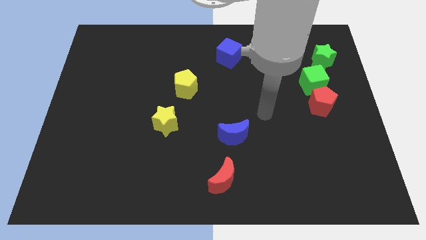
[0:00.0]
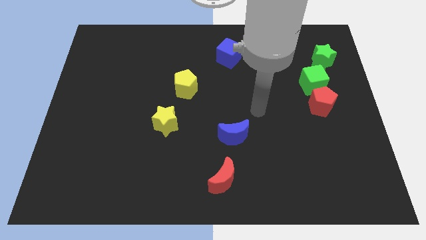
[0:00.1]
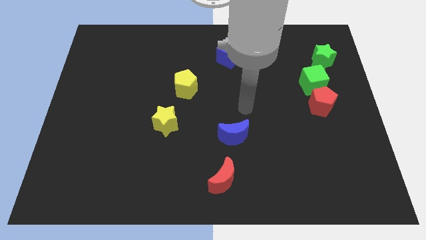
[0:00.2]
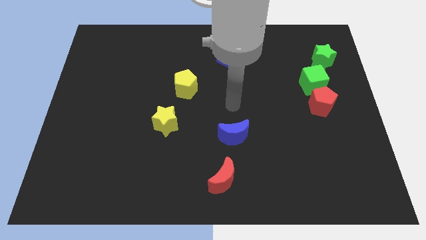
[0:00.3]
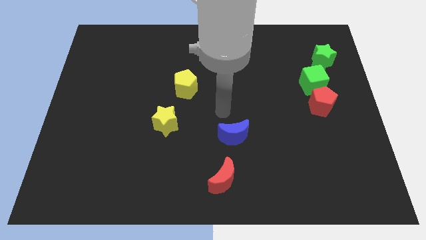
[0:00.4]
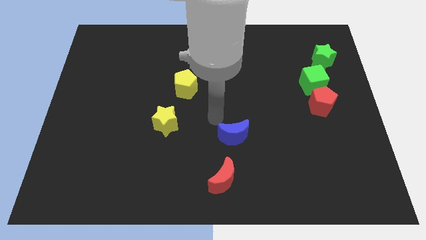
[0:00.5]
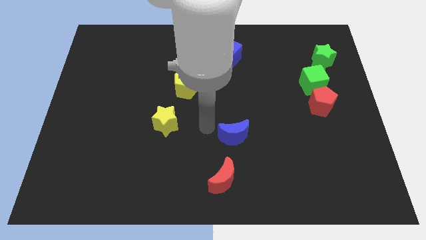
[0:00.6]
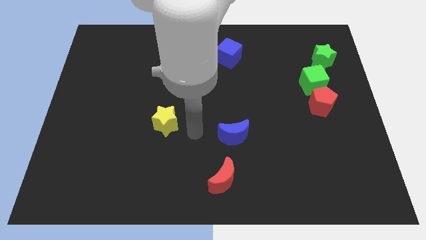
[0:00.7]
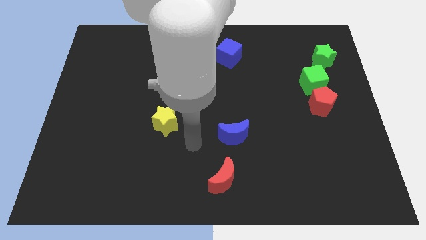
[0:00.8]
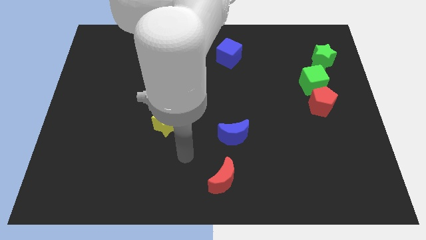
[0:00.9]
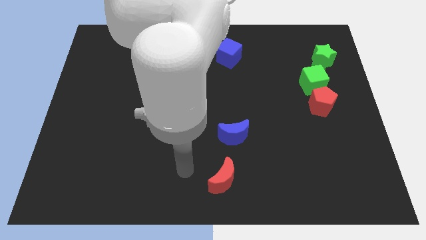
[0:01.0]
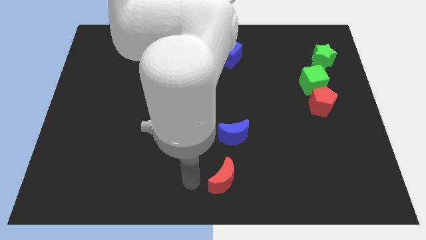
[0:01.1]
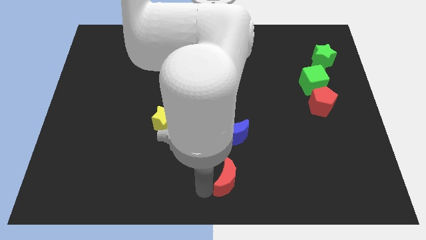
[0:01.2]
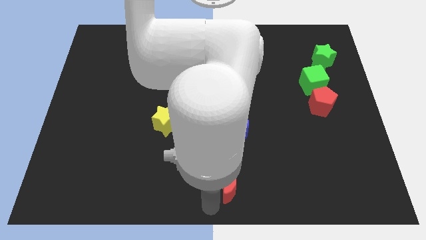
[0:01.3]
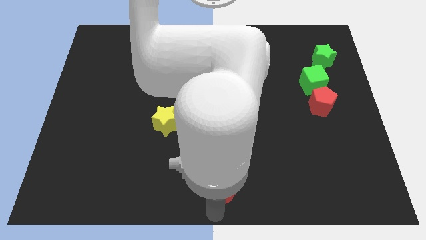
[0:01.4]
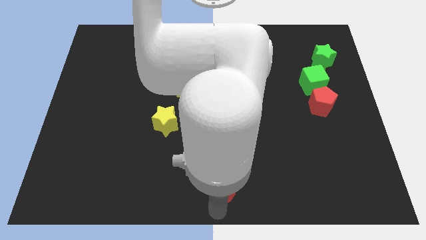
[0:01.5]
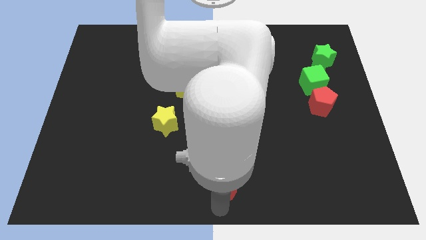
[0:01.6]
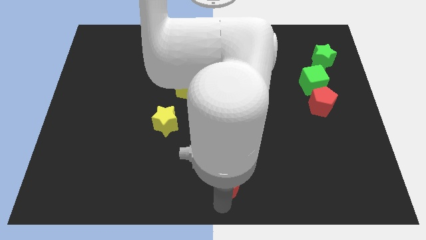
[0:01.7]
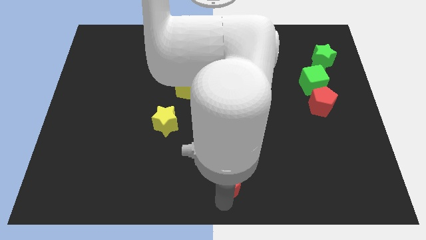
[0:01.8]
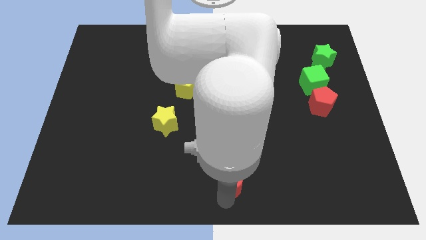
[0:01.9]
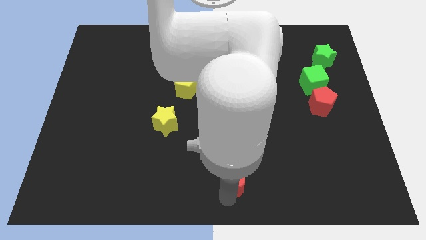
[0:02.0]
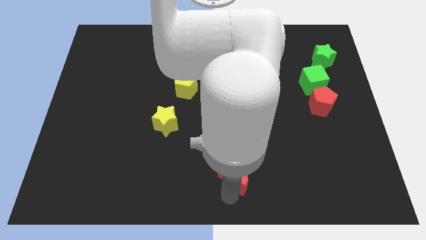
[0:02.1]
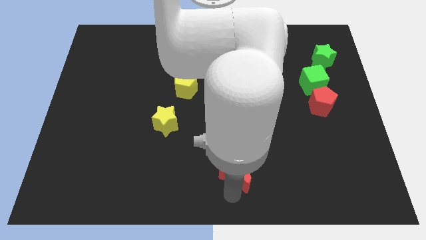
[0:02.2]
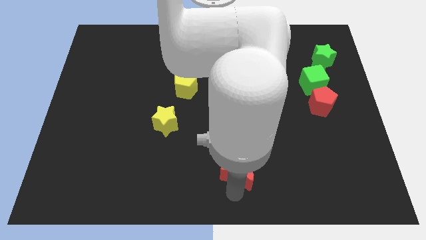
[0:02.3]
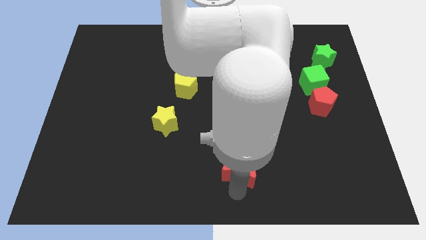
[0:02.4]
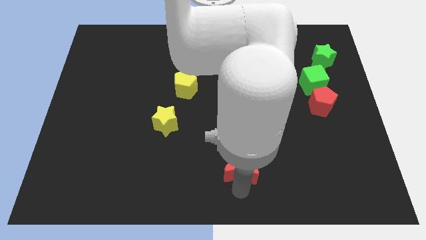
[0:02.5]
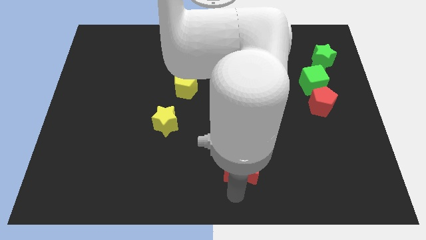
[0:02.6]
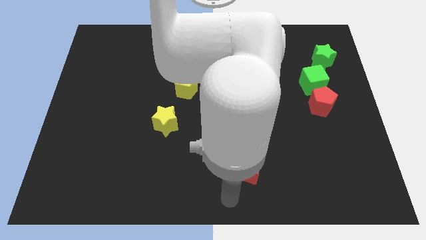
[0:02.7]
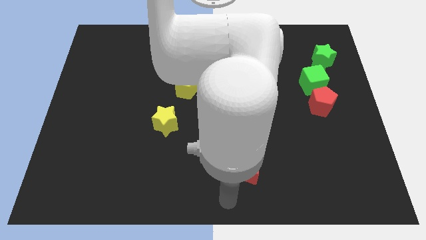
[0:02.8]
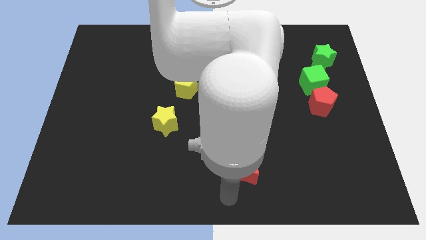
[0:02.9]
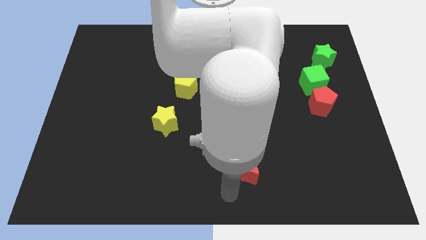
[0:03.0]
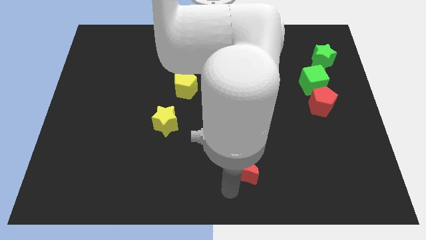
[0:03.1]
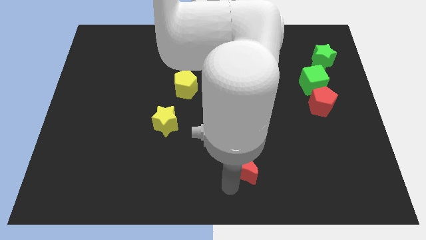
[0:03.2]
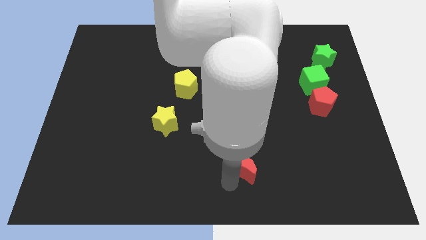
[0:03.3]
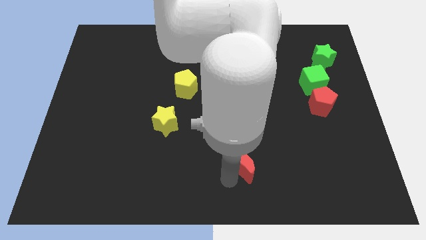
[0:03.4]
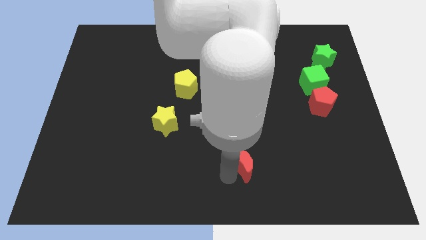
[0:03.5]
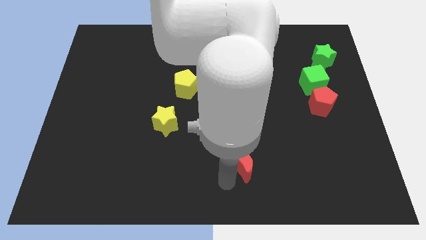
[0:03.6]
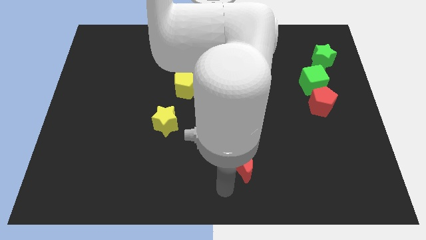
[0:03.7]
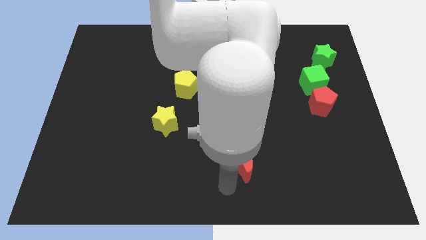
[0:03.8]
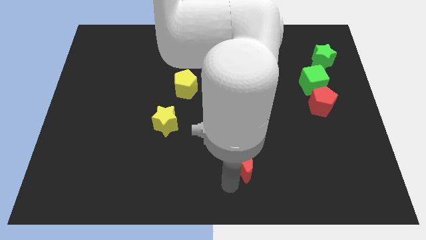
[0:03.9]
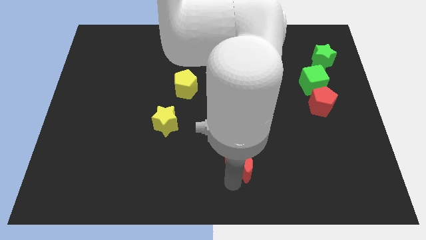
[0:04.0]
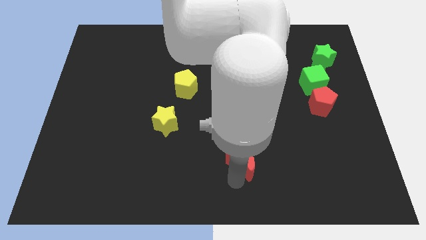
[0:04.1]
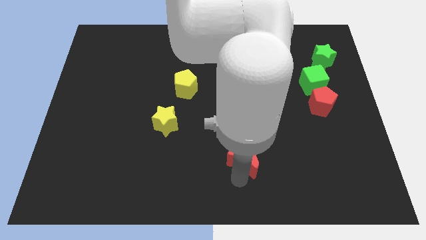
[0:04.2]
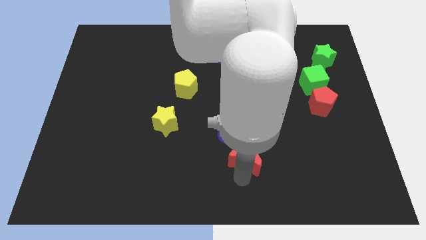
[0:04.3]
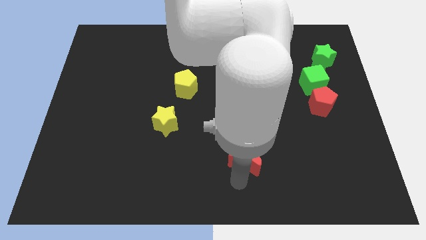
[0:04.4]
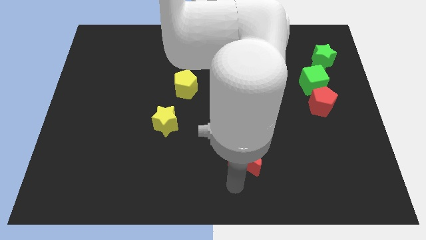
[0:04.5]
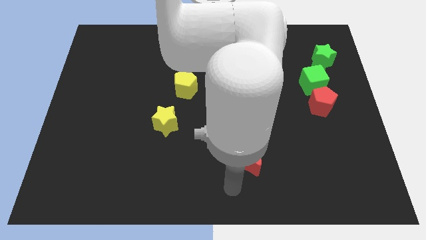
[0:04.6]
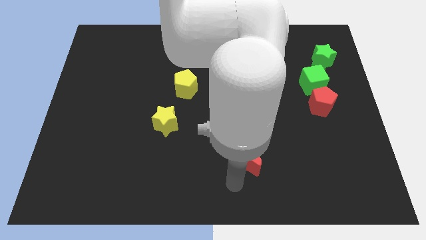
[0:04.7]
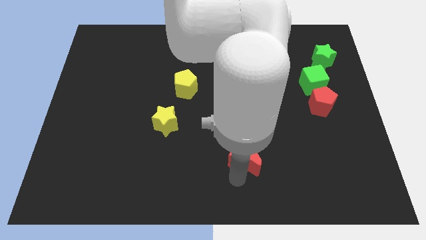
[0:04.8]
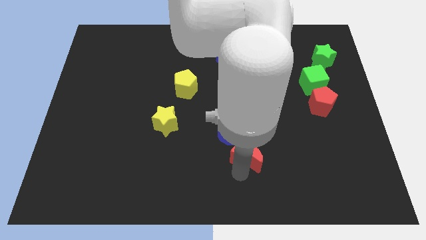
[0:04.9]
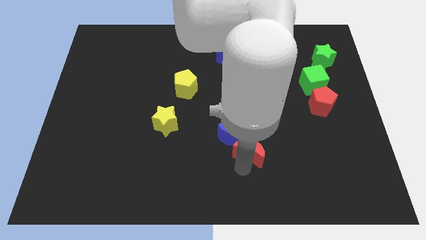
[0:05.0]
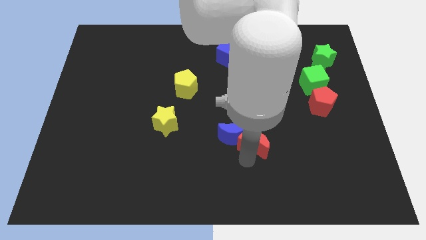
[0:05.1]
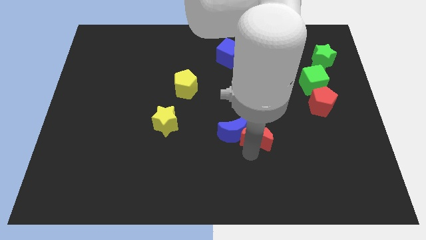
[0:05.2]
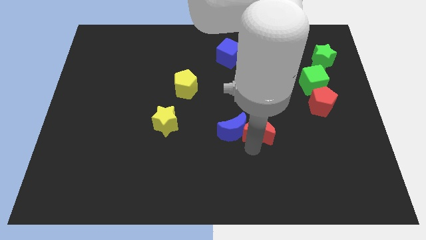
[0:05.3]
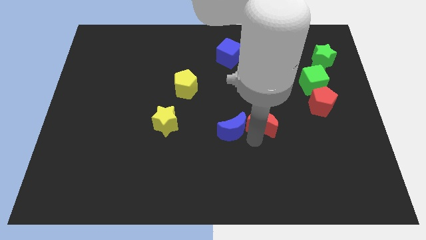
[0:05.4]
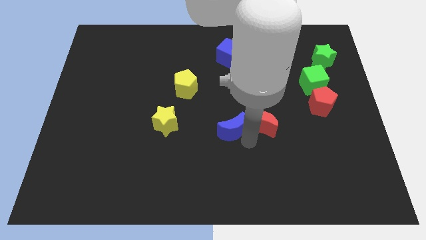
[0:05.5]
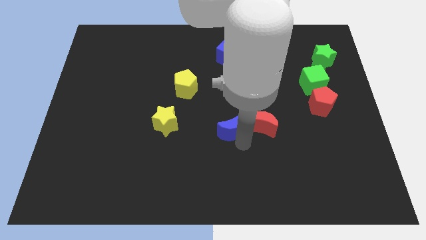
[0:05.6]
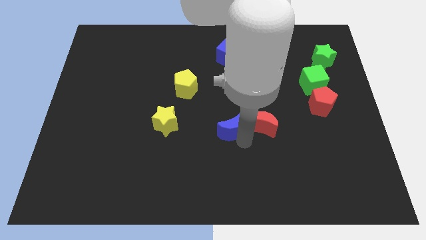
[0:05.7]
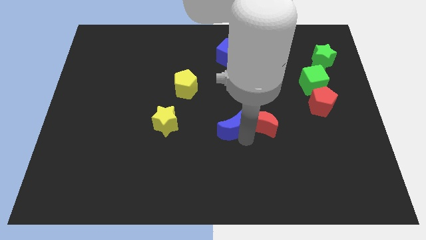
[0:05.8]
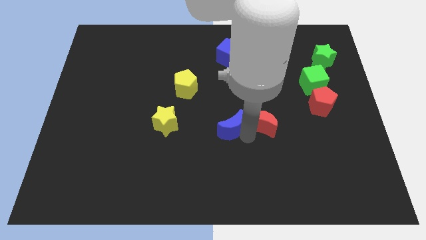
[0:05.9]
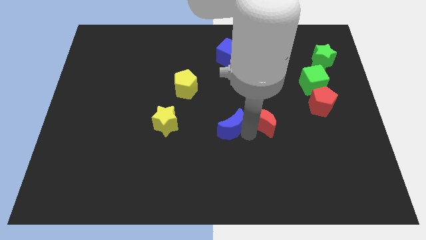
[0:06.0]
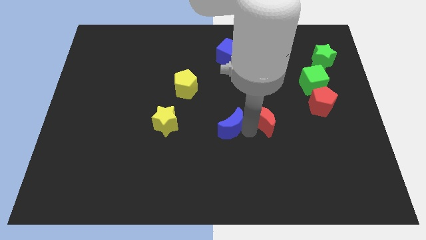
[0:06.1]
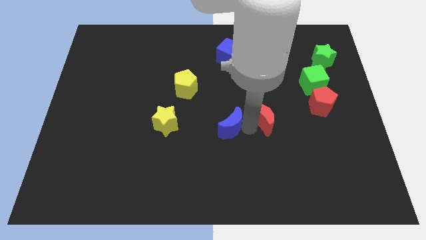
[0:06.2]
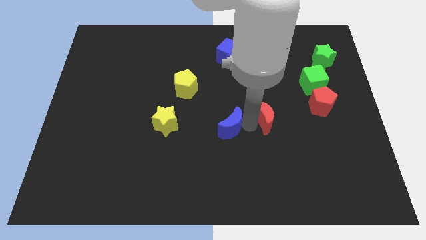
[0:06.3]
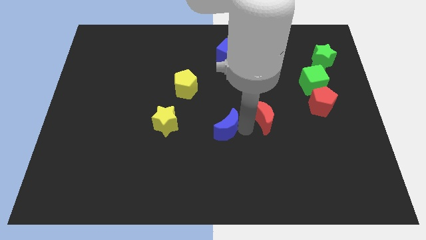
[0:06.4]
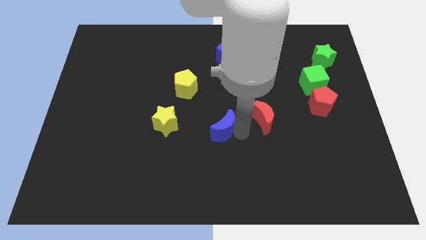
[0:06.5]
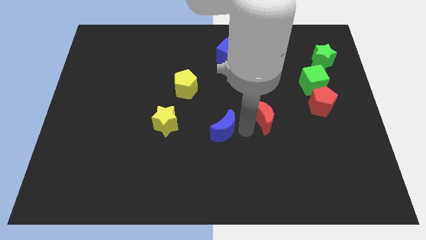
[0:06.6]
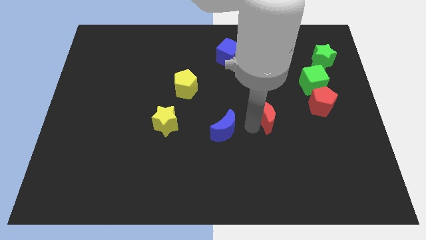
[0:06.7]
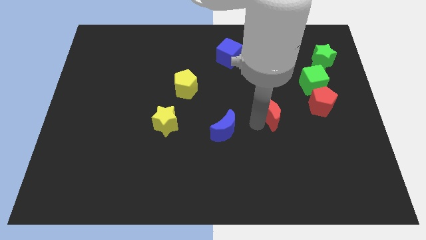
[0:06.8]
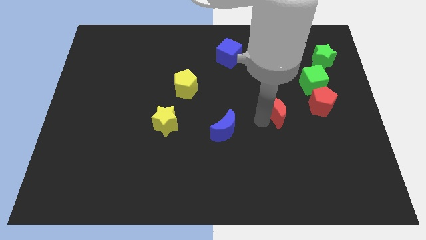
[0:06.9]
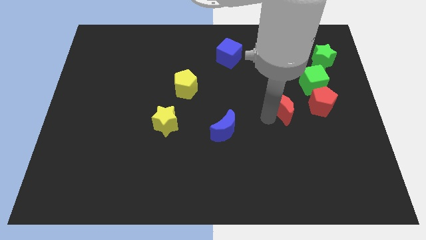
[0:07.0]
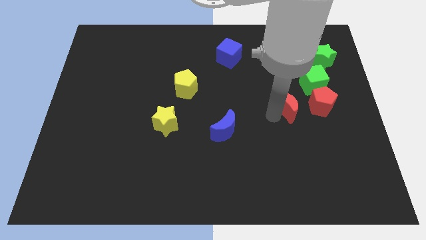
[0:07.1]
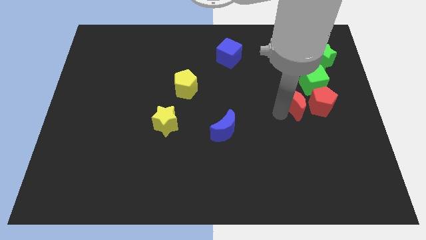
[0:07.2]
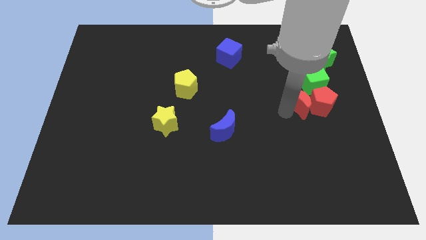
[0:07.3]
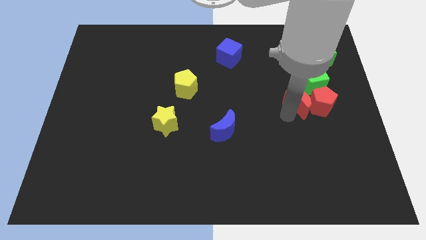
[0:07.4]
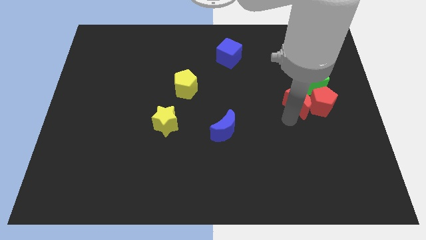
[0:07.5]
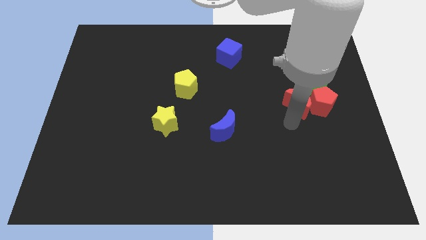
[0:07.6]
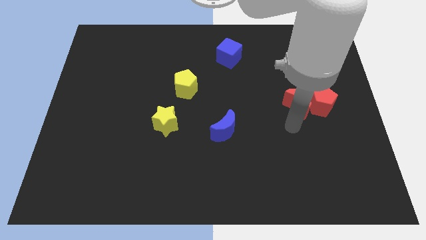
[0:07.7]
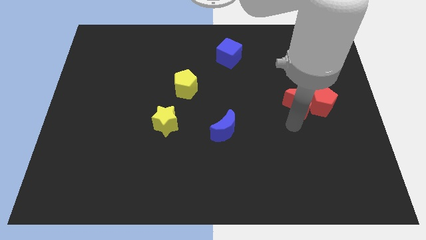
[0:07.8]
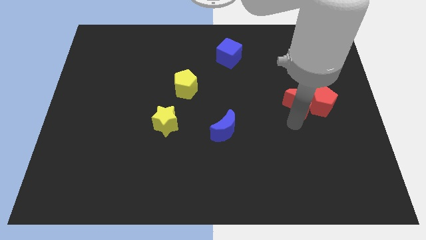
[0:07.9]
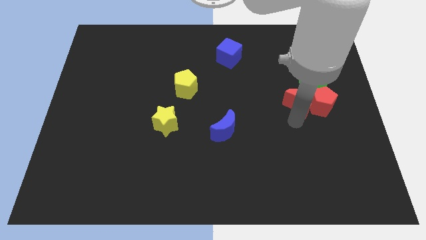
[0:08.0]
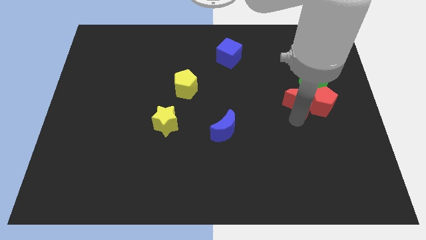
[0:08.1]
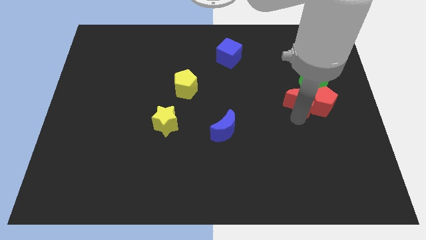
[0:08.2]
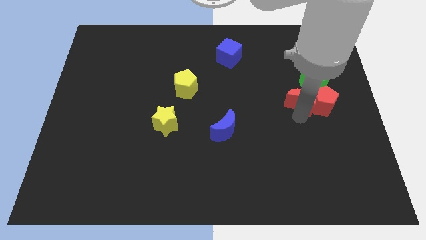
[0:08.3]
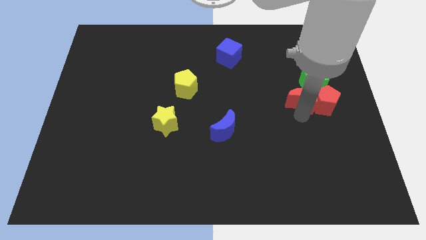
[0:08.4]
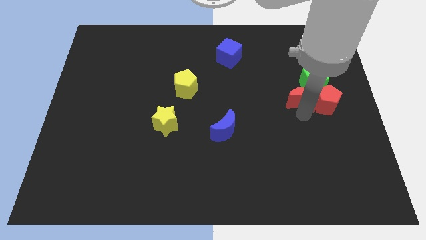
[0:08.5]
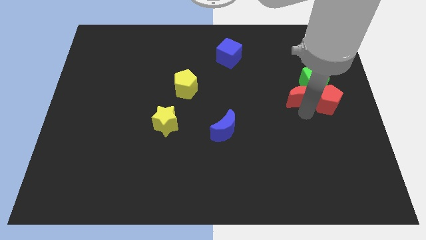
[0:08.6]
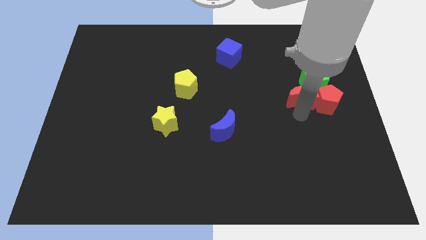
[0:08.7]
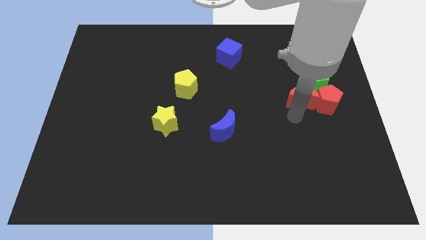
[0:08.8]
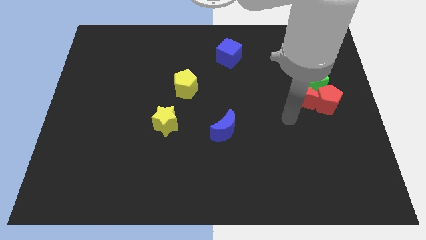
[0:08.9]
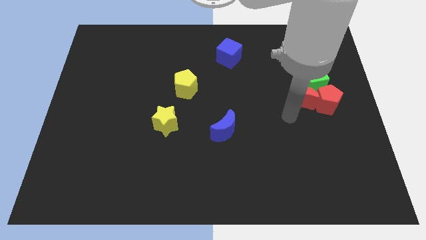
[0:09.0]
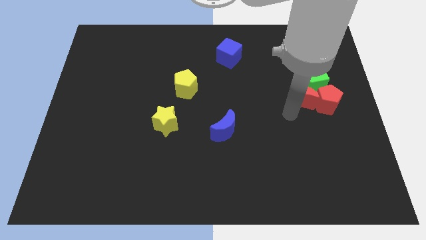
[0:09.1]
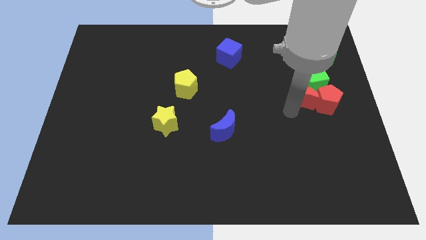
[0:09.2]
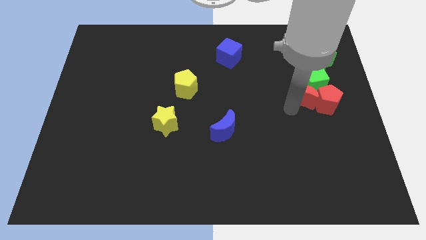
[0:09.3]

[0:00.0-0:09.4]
push the red moon close to the green cube
